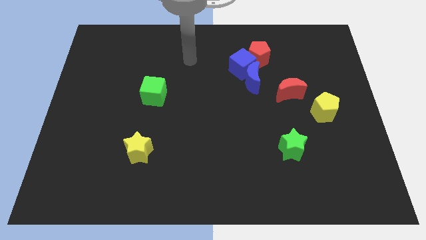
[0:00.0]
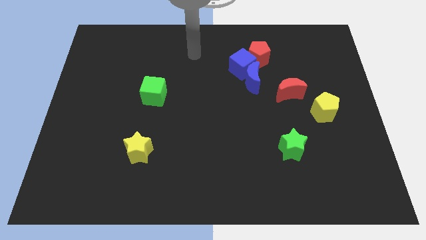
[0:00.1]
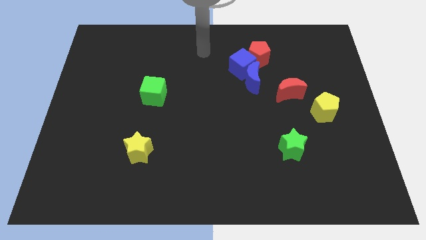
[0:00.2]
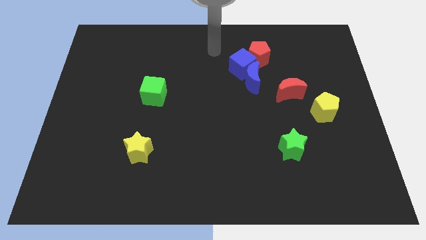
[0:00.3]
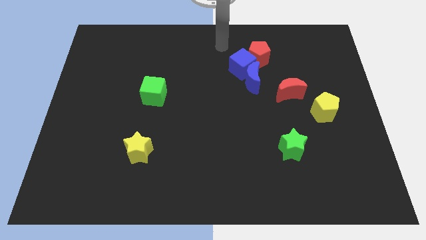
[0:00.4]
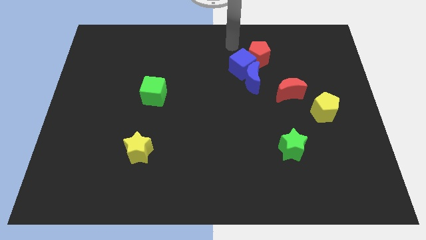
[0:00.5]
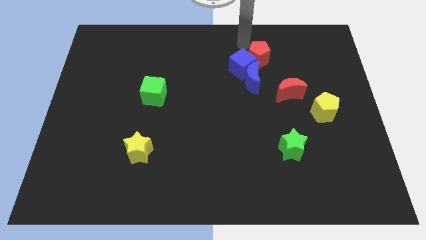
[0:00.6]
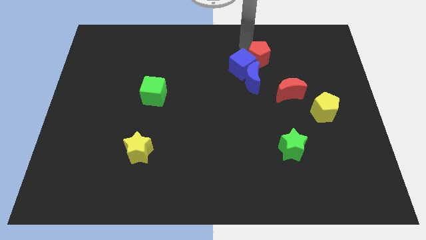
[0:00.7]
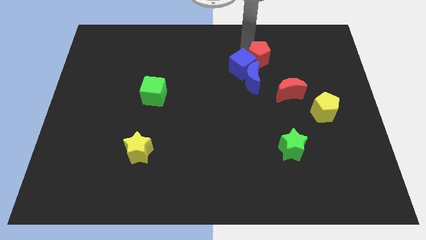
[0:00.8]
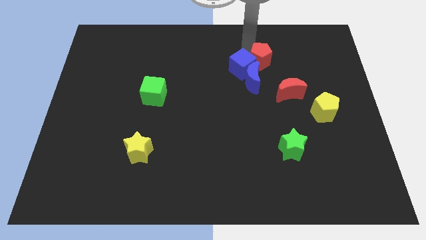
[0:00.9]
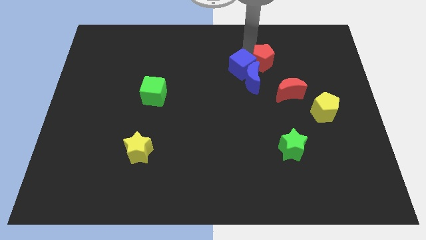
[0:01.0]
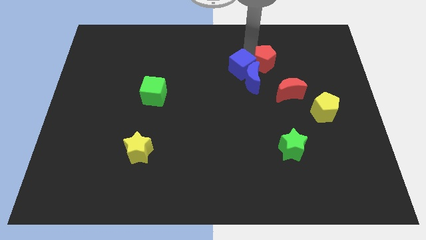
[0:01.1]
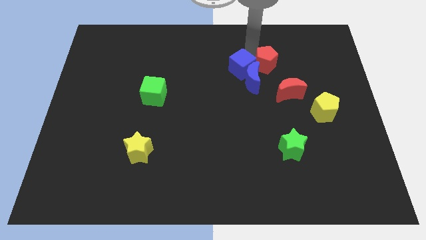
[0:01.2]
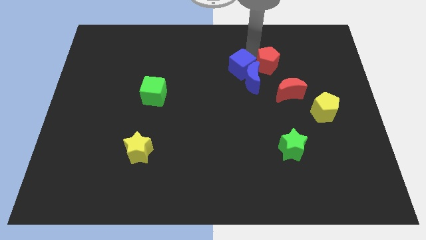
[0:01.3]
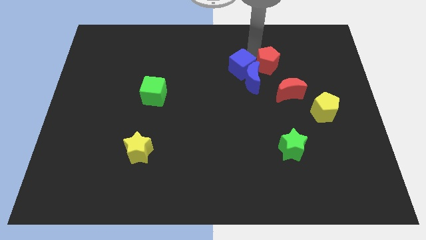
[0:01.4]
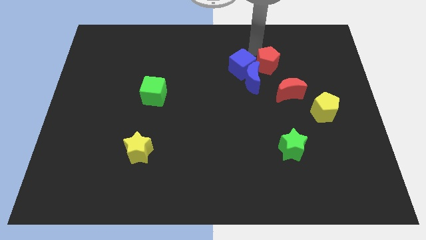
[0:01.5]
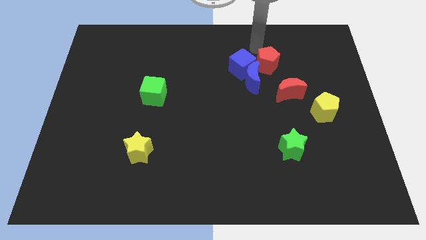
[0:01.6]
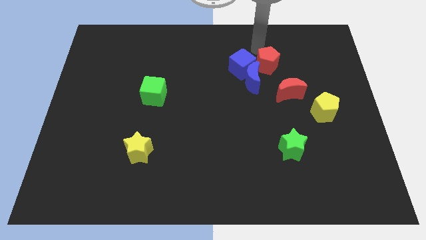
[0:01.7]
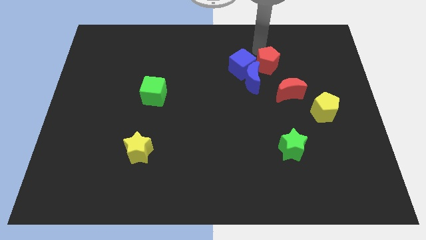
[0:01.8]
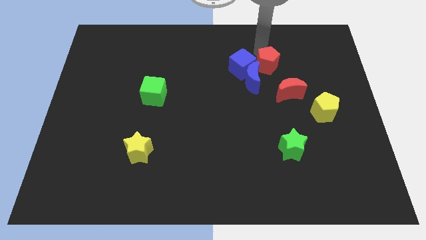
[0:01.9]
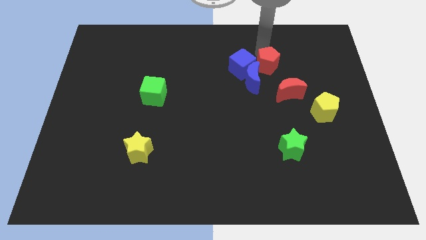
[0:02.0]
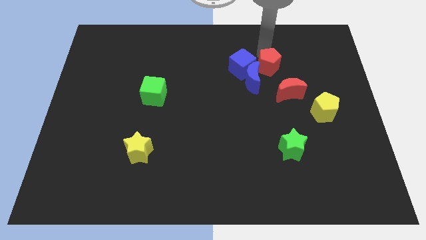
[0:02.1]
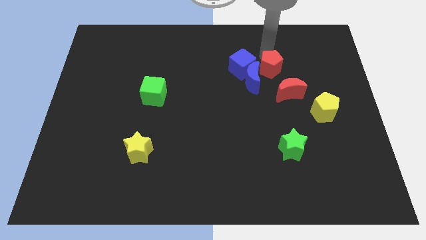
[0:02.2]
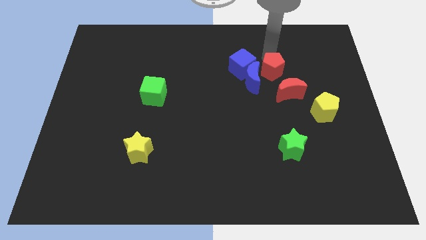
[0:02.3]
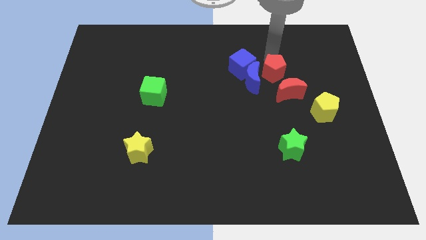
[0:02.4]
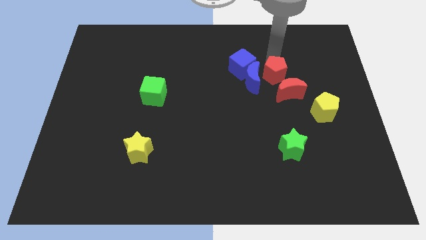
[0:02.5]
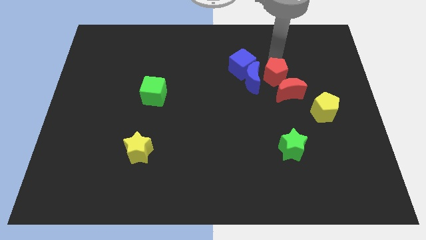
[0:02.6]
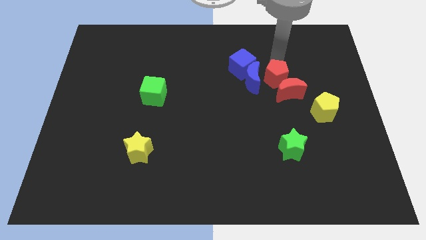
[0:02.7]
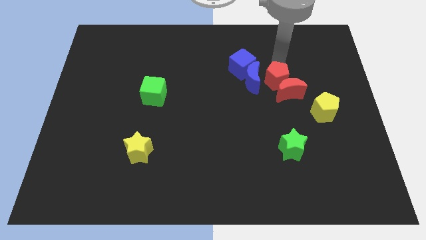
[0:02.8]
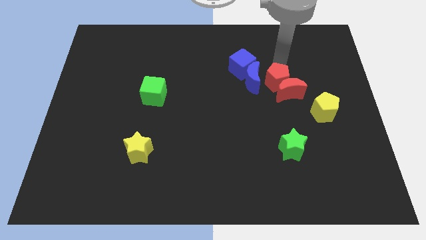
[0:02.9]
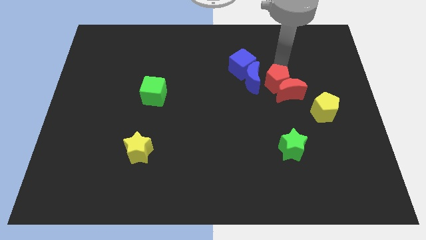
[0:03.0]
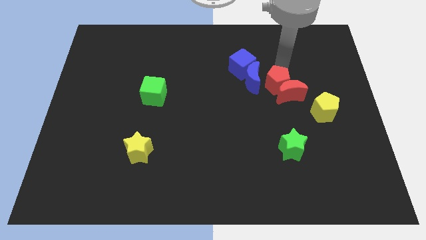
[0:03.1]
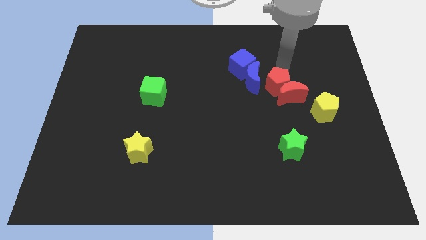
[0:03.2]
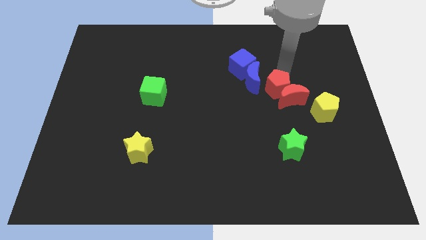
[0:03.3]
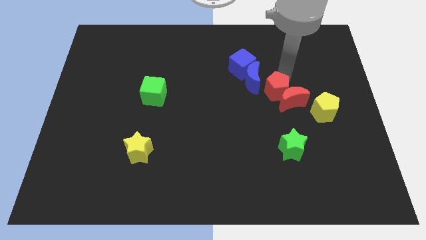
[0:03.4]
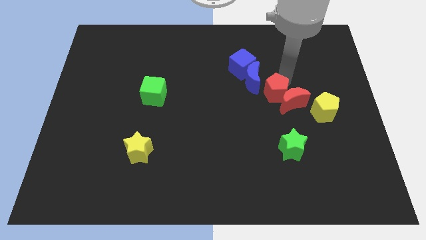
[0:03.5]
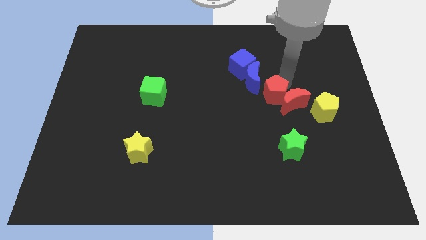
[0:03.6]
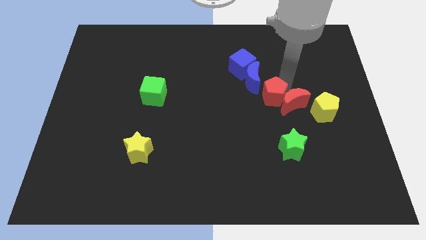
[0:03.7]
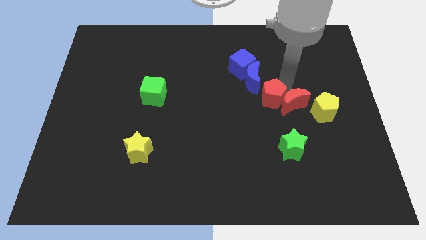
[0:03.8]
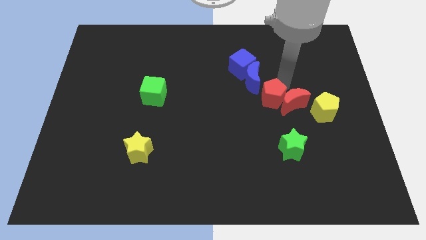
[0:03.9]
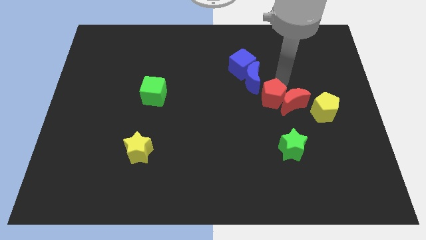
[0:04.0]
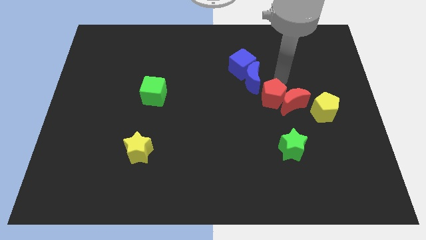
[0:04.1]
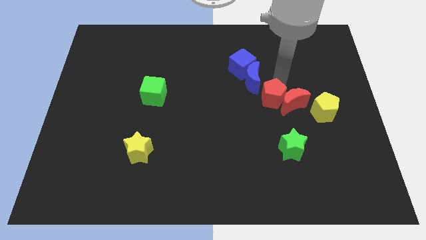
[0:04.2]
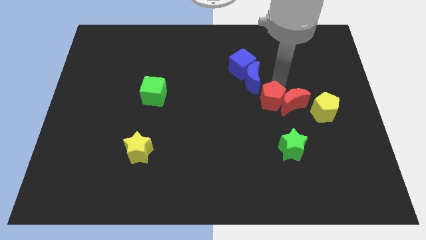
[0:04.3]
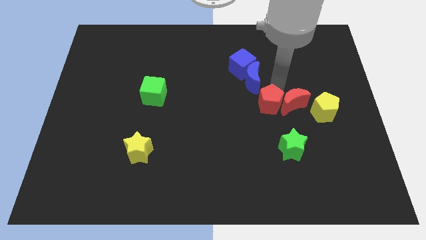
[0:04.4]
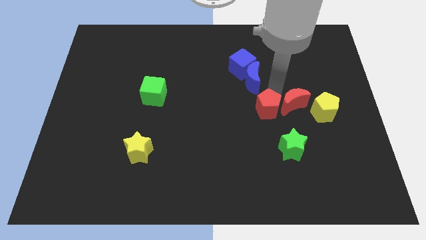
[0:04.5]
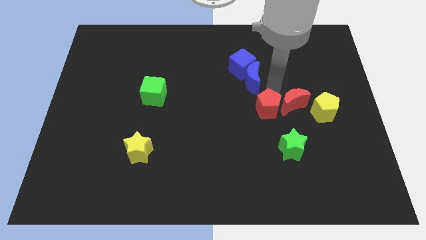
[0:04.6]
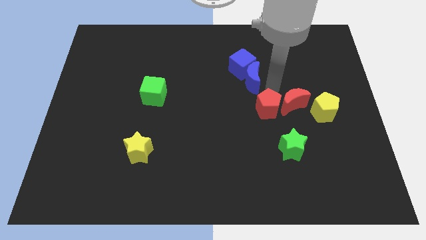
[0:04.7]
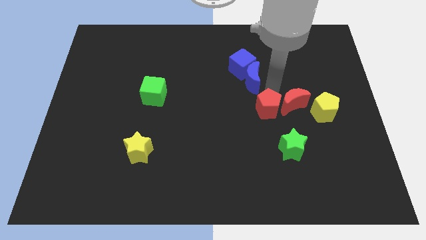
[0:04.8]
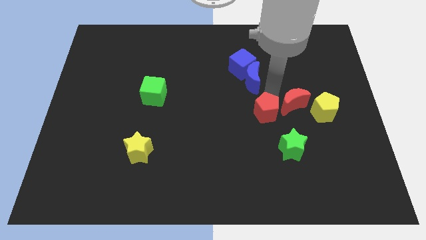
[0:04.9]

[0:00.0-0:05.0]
slide the red pentagon to the top left of the green star

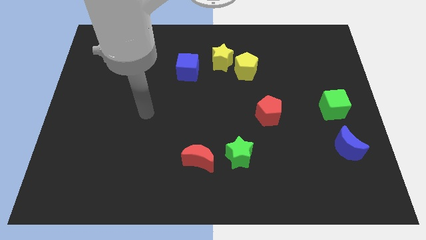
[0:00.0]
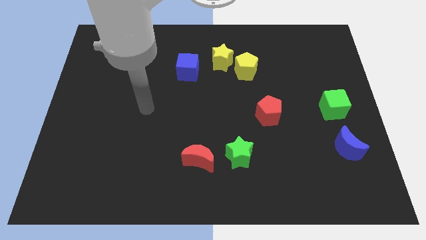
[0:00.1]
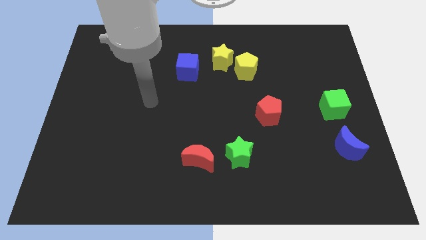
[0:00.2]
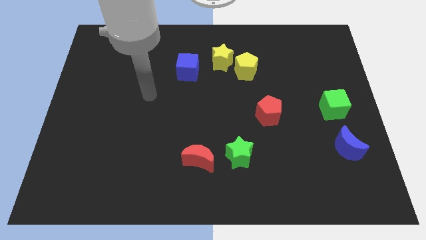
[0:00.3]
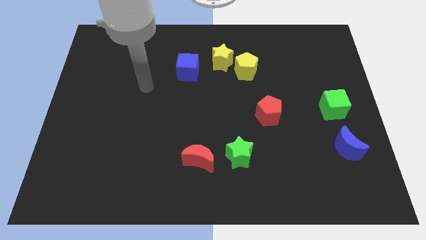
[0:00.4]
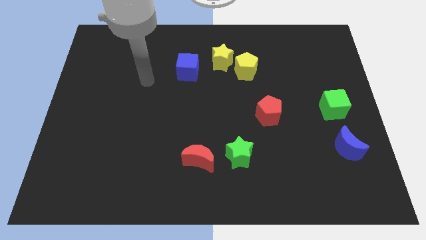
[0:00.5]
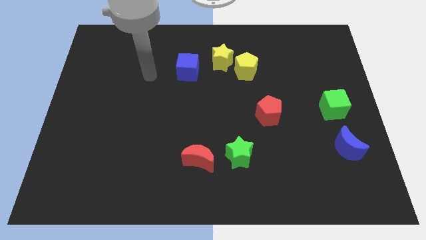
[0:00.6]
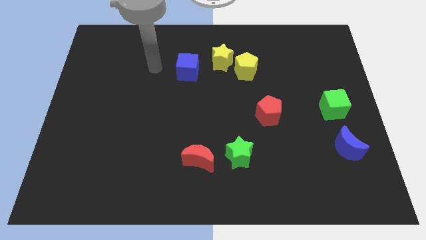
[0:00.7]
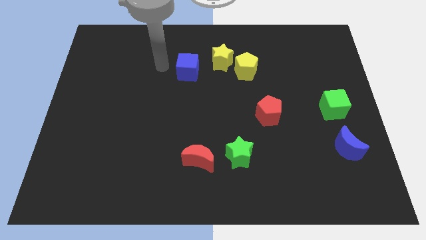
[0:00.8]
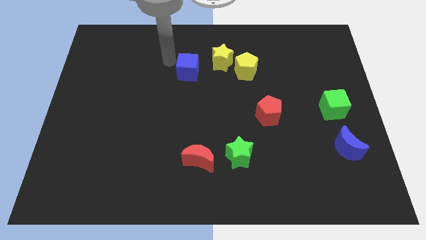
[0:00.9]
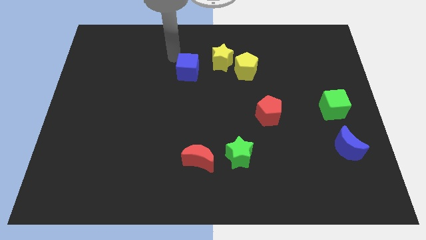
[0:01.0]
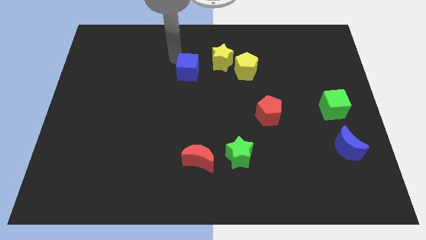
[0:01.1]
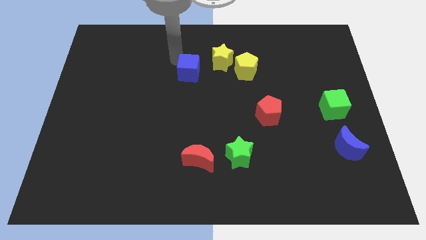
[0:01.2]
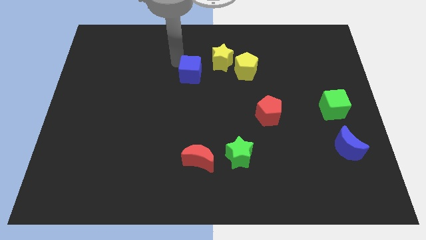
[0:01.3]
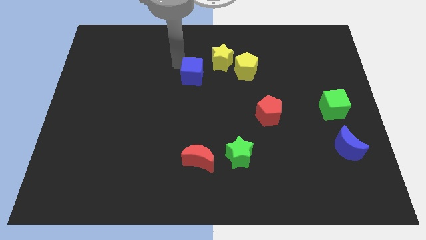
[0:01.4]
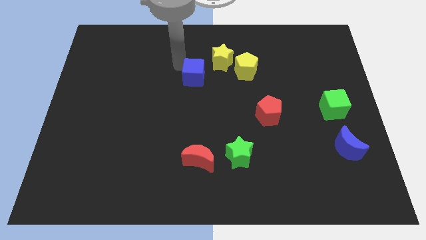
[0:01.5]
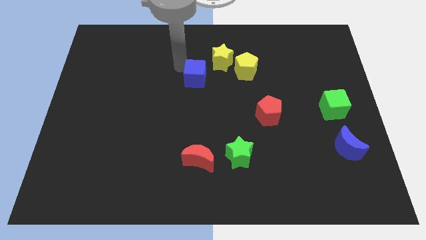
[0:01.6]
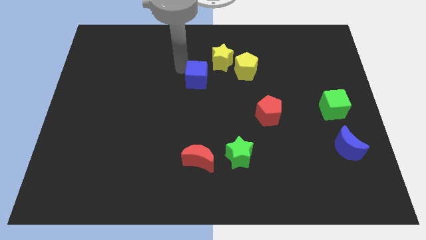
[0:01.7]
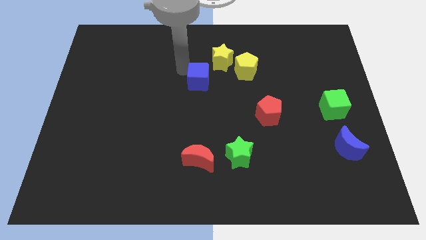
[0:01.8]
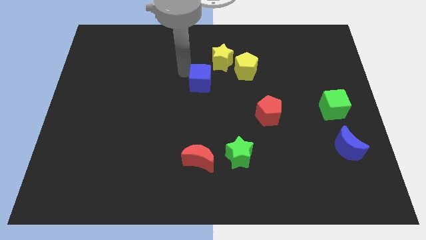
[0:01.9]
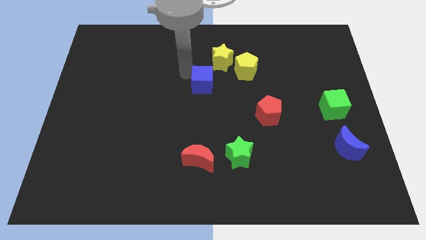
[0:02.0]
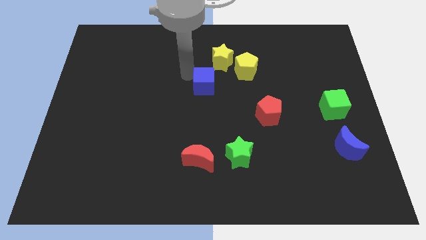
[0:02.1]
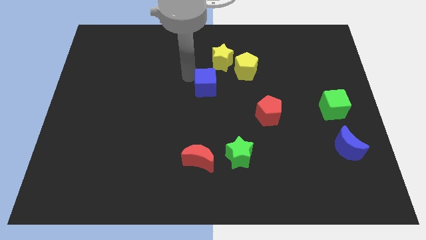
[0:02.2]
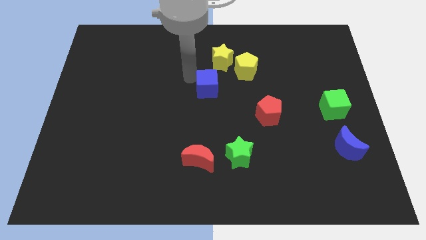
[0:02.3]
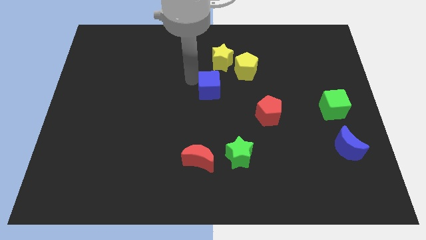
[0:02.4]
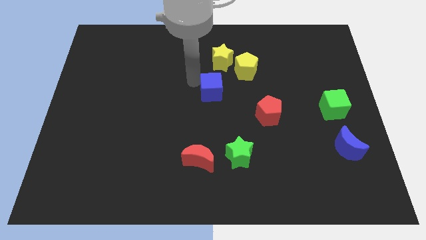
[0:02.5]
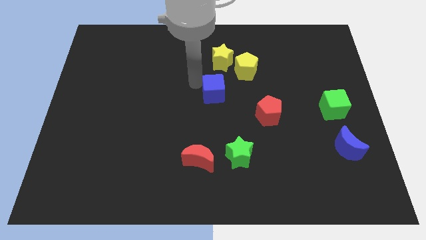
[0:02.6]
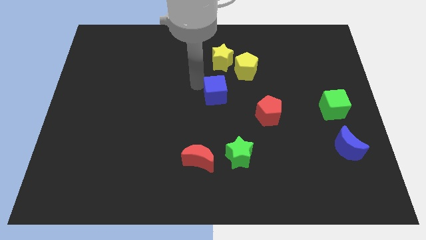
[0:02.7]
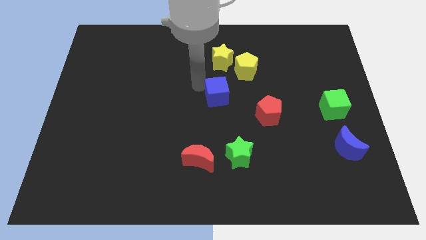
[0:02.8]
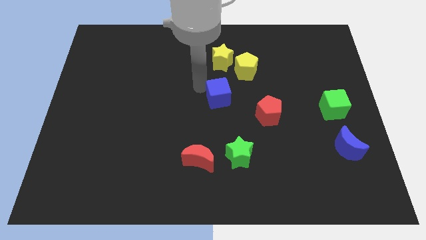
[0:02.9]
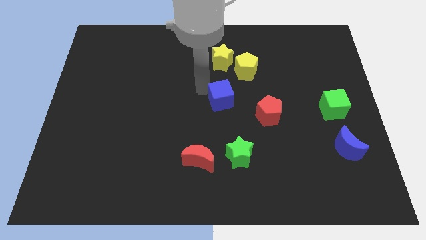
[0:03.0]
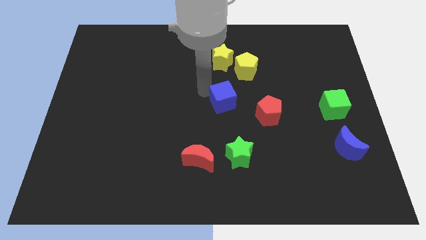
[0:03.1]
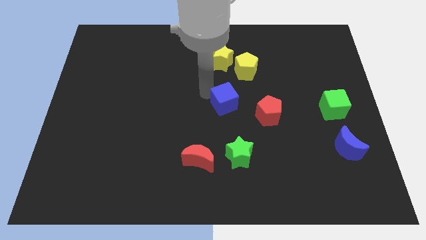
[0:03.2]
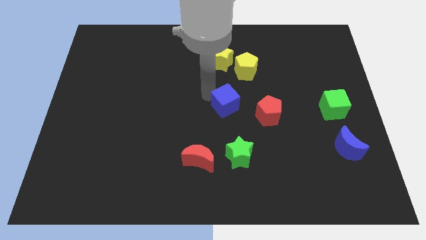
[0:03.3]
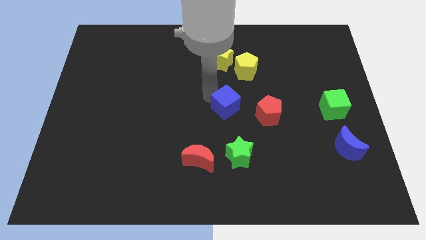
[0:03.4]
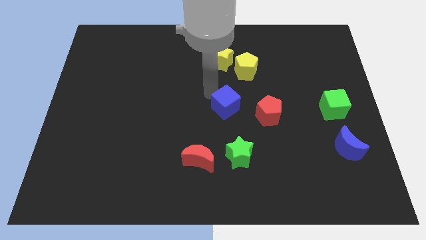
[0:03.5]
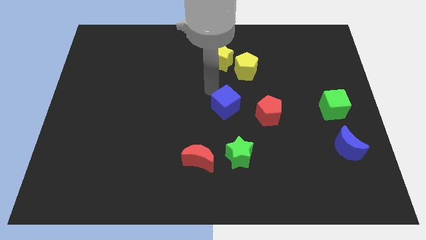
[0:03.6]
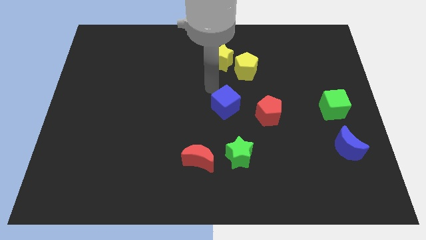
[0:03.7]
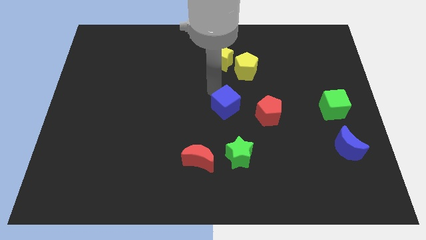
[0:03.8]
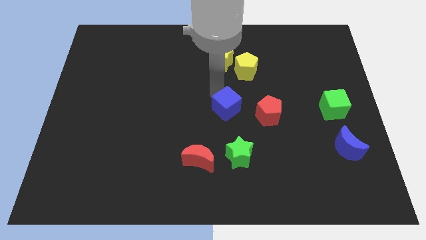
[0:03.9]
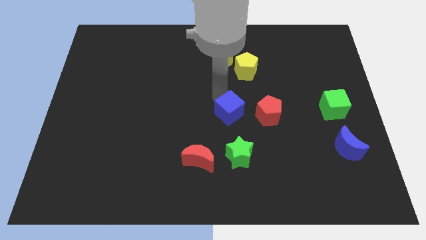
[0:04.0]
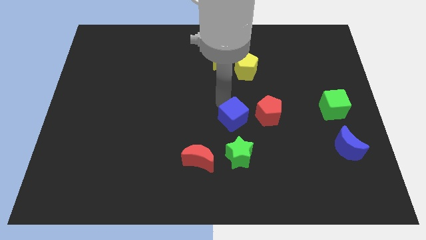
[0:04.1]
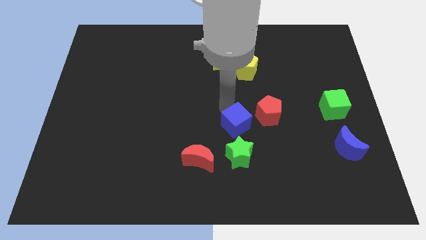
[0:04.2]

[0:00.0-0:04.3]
push the blue cube diagonally down and to the left of the red pentagon
